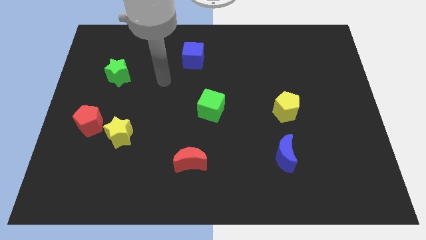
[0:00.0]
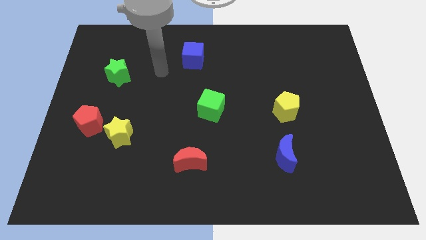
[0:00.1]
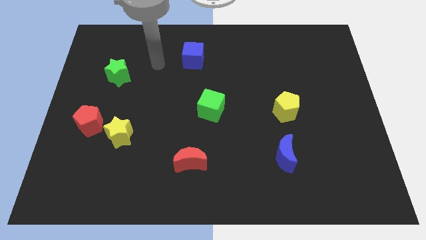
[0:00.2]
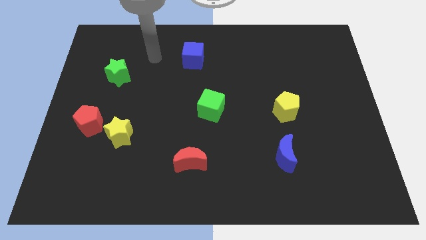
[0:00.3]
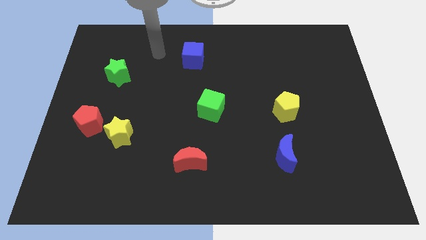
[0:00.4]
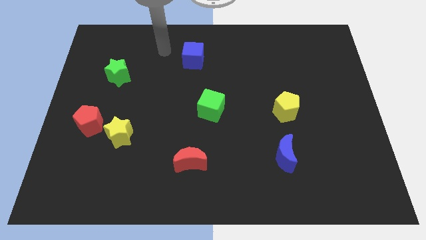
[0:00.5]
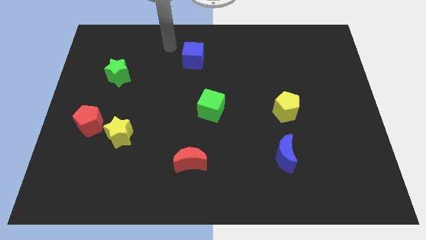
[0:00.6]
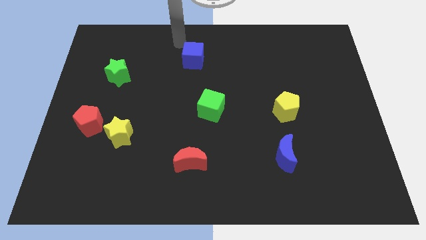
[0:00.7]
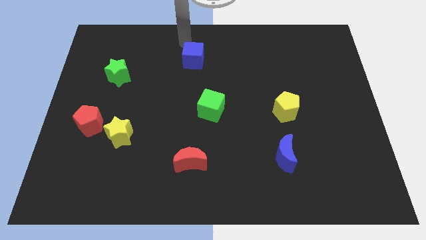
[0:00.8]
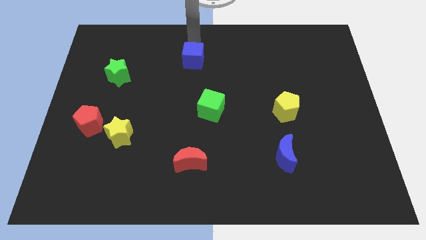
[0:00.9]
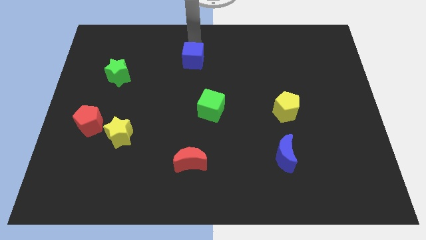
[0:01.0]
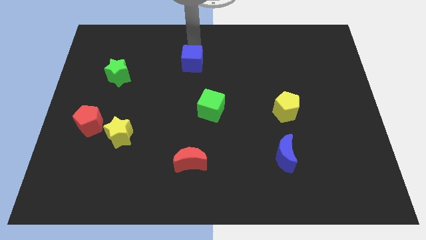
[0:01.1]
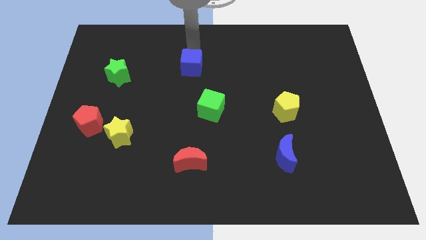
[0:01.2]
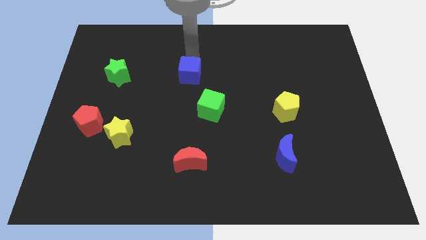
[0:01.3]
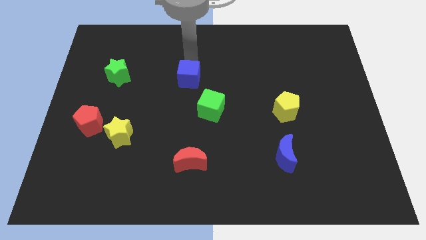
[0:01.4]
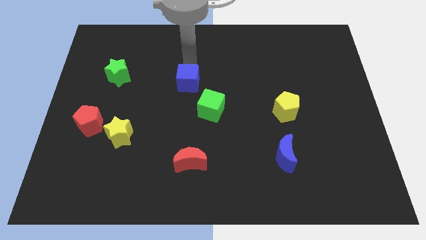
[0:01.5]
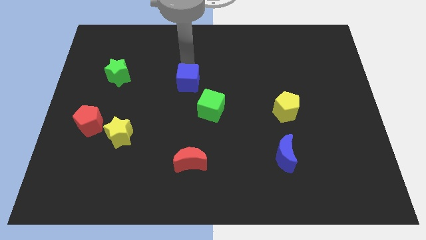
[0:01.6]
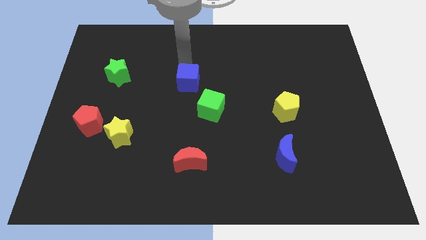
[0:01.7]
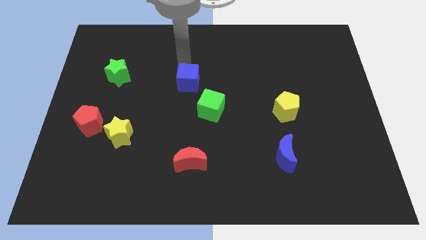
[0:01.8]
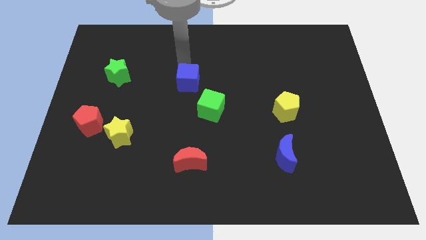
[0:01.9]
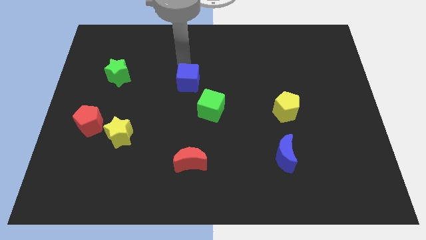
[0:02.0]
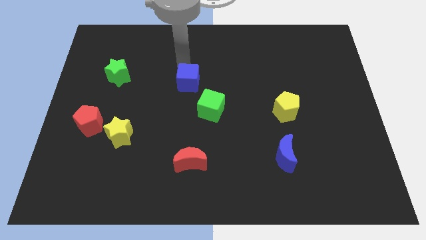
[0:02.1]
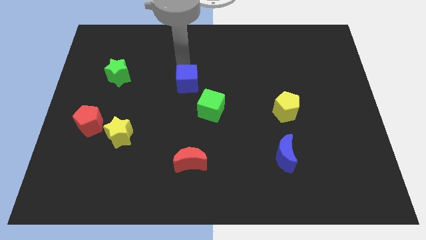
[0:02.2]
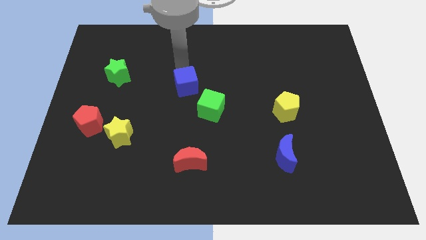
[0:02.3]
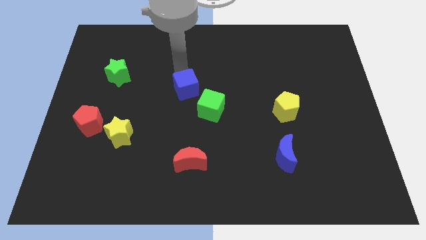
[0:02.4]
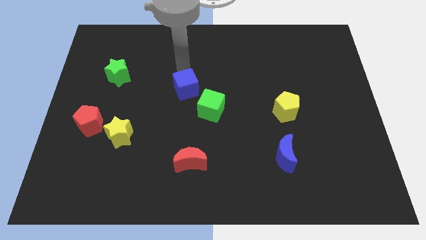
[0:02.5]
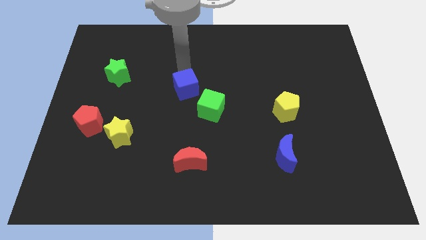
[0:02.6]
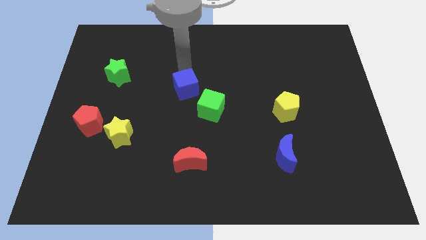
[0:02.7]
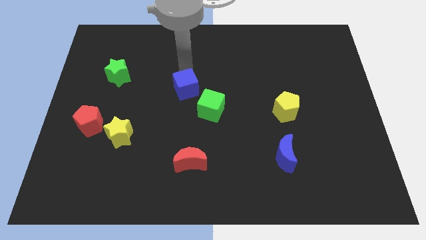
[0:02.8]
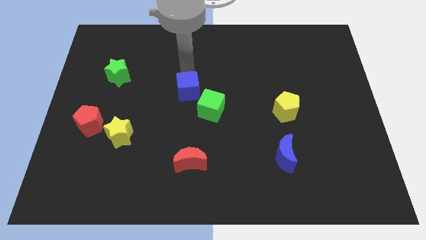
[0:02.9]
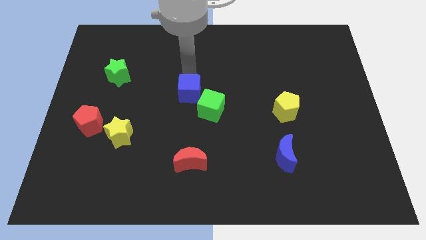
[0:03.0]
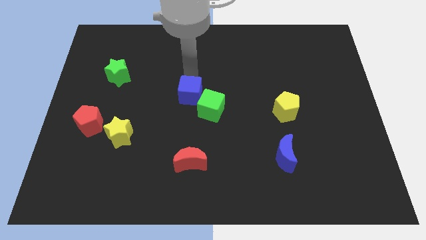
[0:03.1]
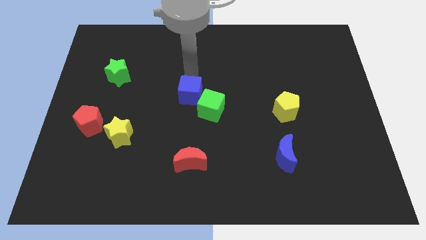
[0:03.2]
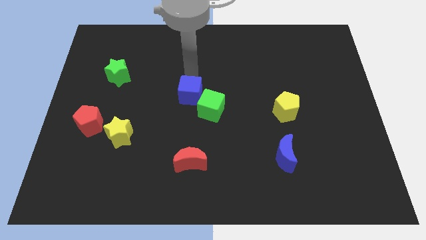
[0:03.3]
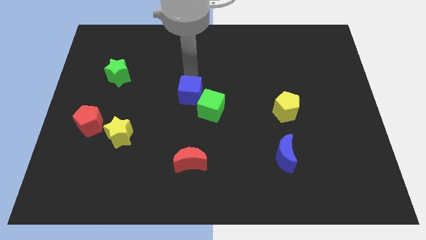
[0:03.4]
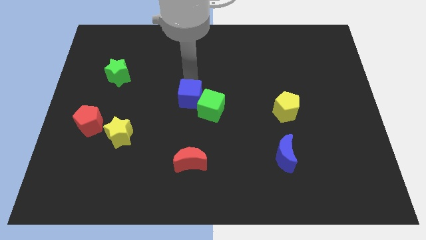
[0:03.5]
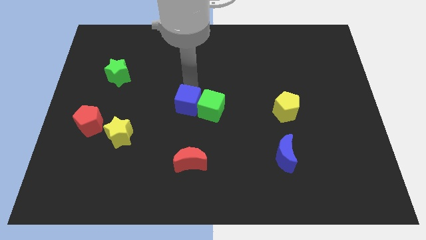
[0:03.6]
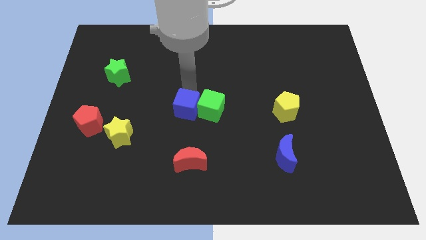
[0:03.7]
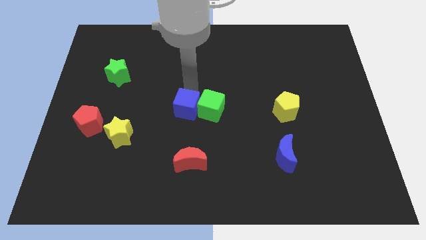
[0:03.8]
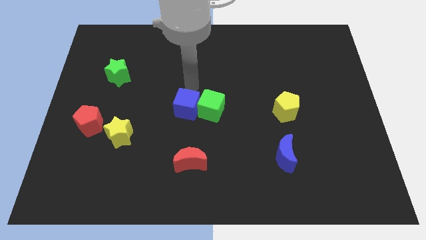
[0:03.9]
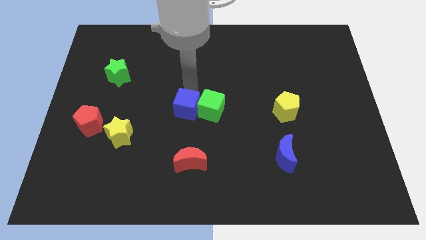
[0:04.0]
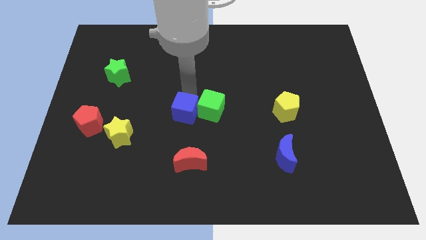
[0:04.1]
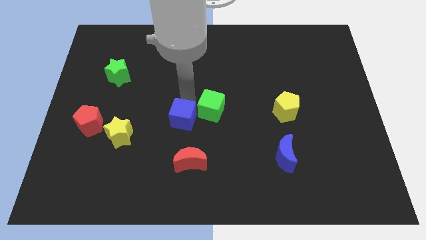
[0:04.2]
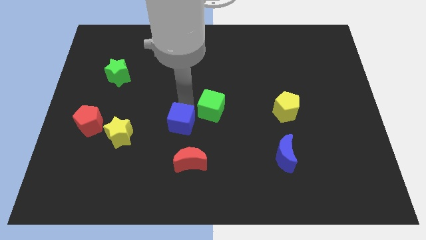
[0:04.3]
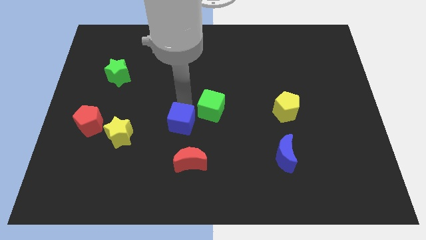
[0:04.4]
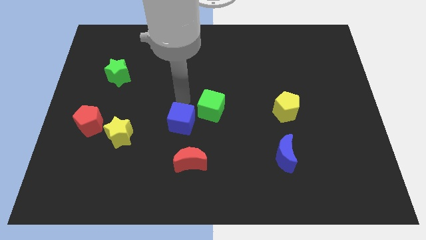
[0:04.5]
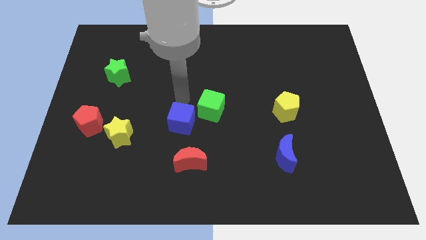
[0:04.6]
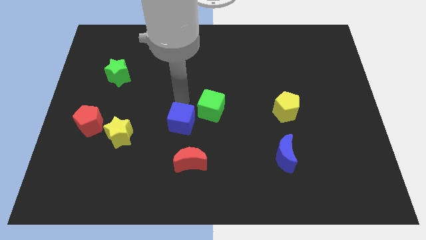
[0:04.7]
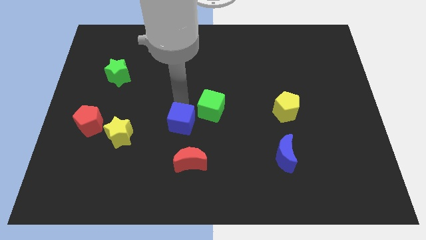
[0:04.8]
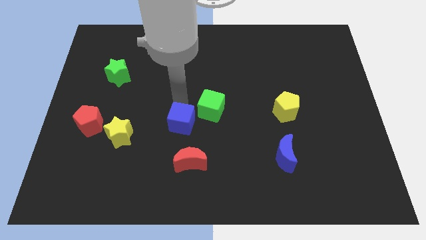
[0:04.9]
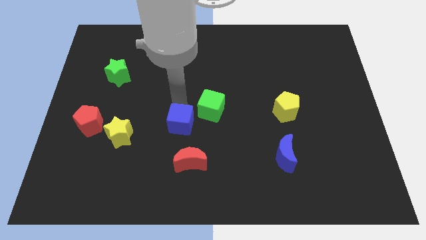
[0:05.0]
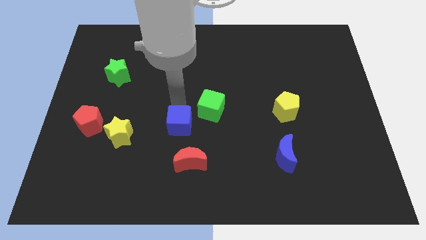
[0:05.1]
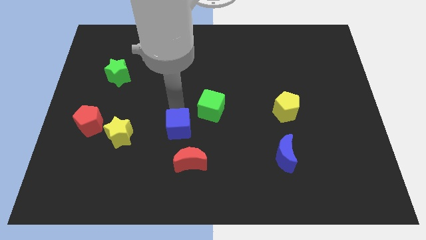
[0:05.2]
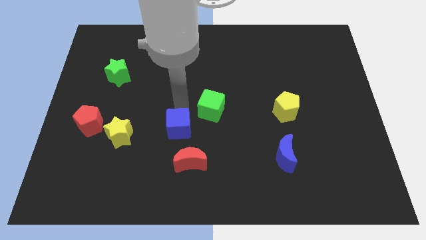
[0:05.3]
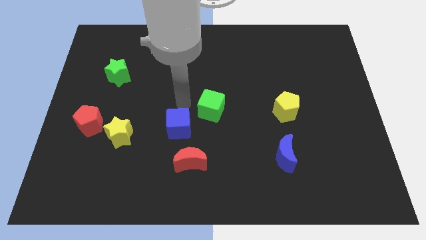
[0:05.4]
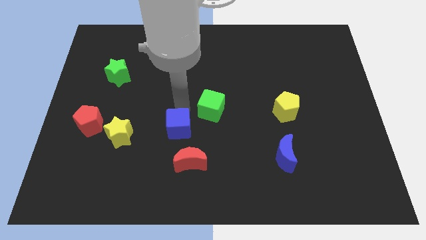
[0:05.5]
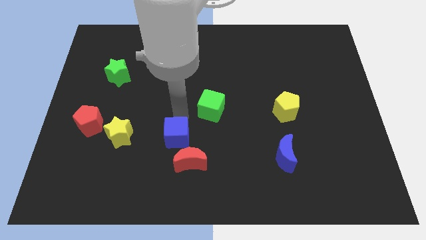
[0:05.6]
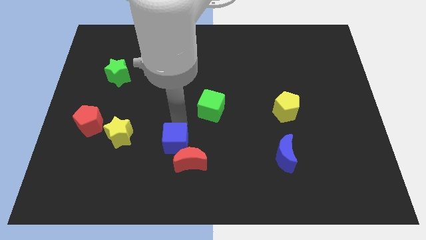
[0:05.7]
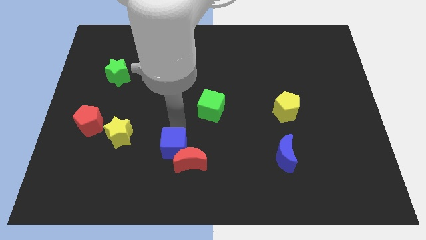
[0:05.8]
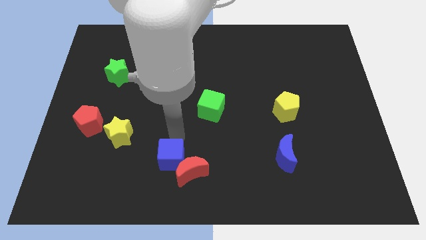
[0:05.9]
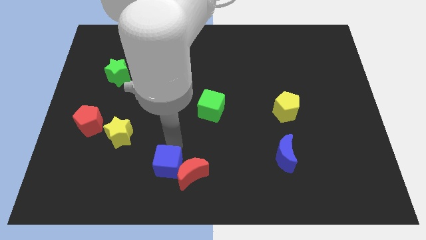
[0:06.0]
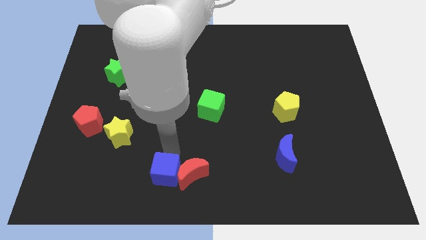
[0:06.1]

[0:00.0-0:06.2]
move the blue cube to the bottom left side of the red moon

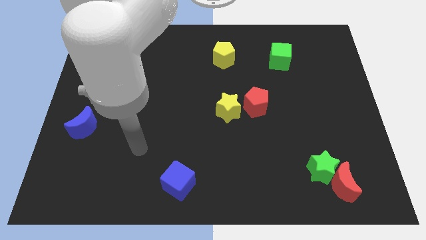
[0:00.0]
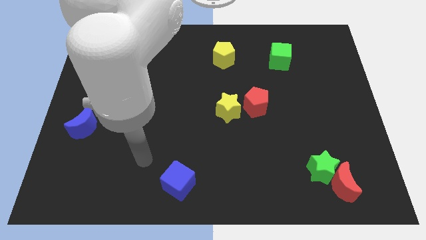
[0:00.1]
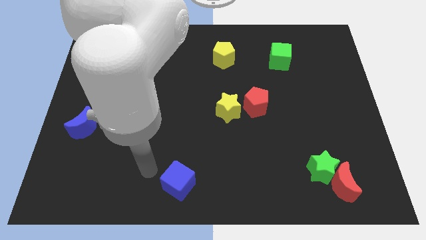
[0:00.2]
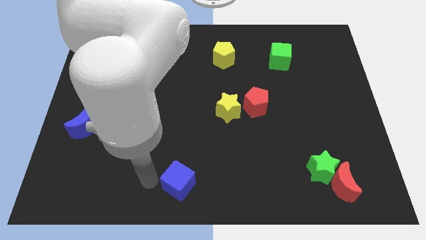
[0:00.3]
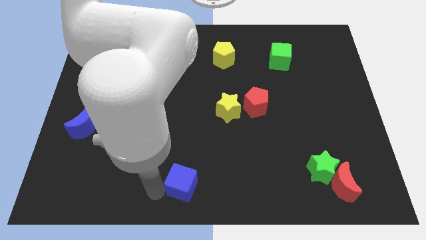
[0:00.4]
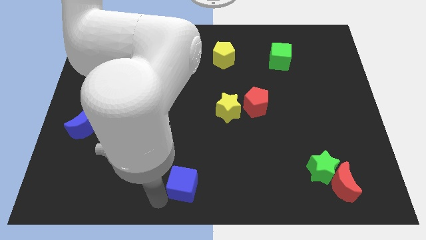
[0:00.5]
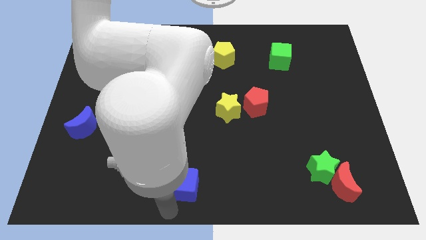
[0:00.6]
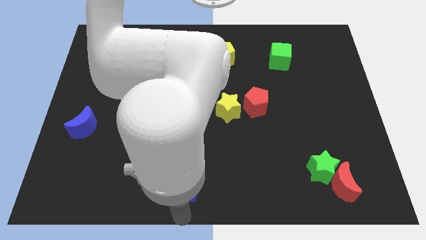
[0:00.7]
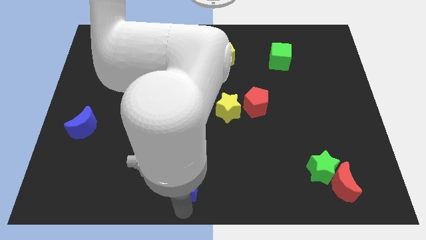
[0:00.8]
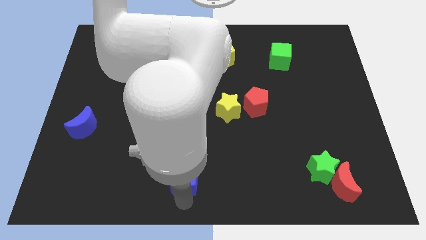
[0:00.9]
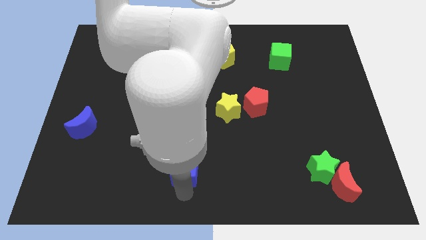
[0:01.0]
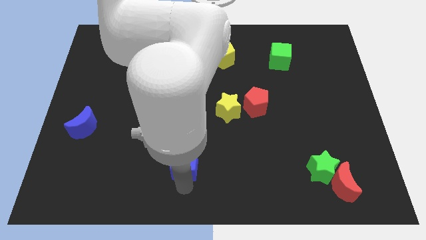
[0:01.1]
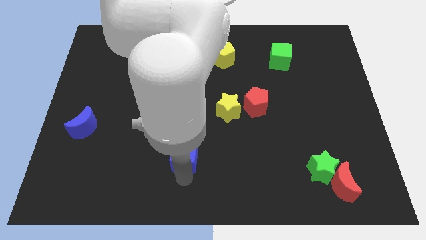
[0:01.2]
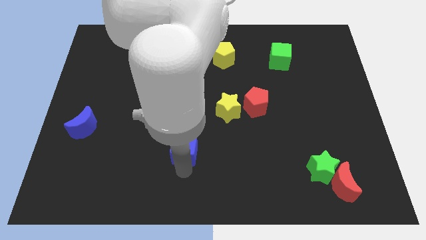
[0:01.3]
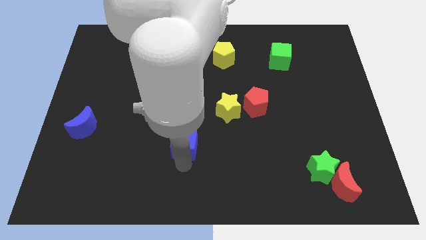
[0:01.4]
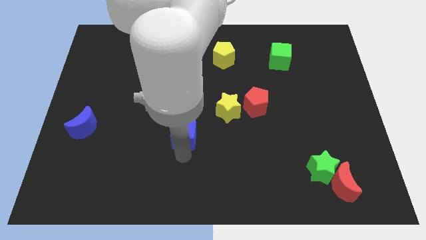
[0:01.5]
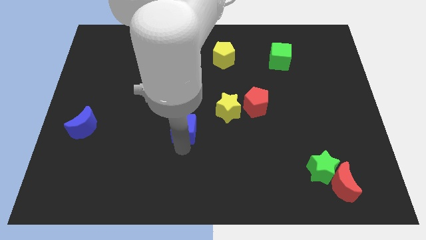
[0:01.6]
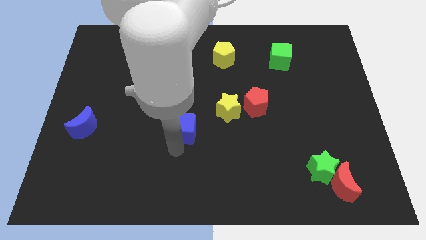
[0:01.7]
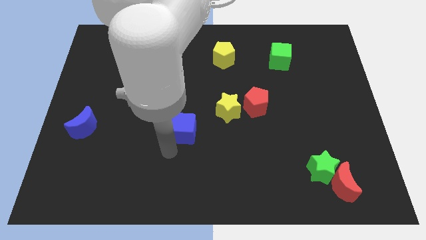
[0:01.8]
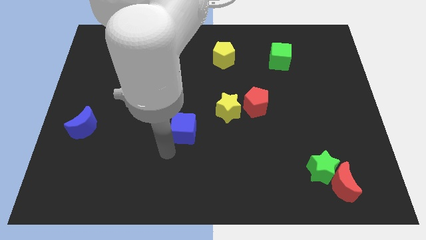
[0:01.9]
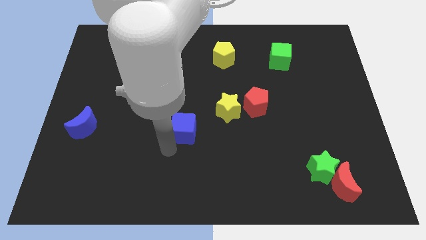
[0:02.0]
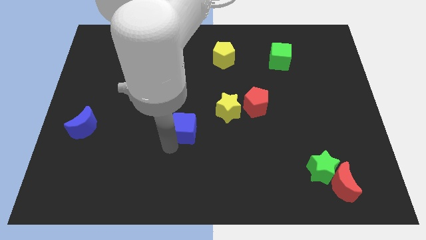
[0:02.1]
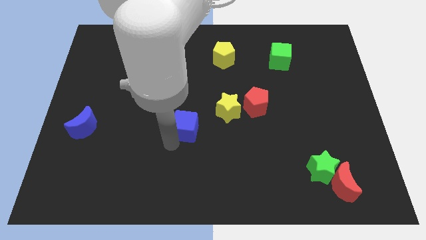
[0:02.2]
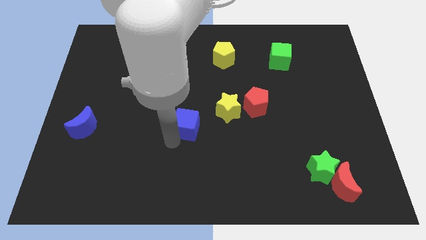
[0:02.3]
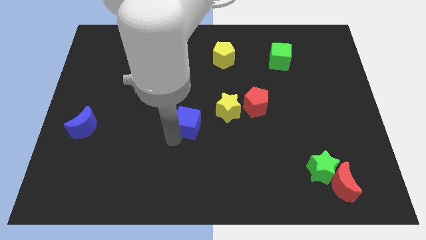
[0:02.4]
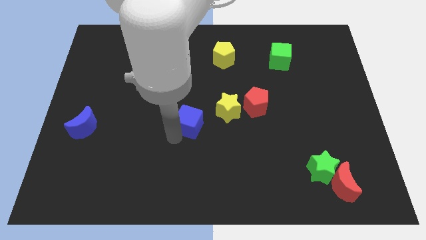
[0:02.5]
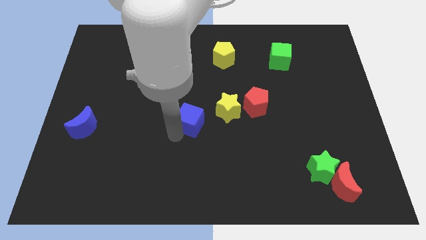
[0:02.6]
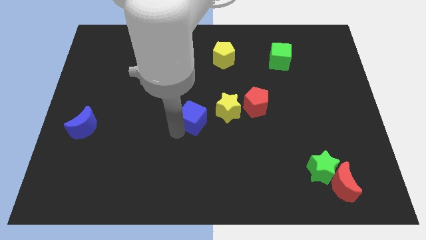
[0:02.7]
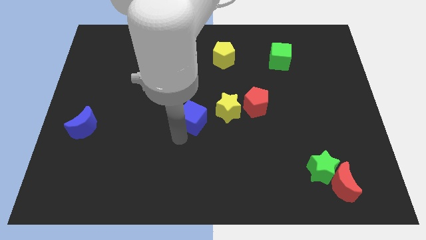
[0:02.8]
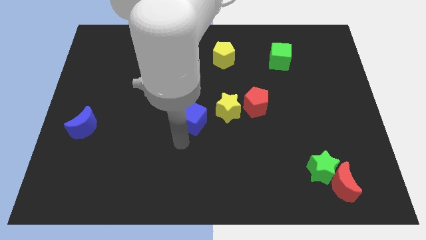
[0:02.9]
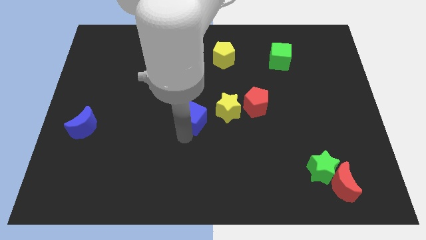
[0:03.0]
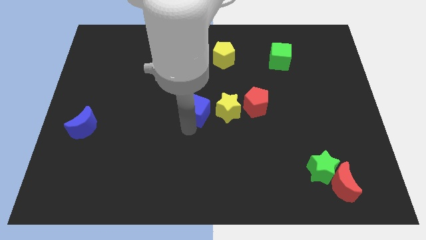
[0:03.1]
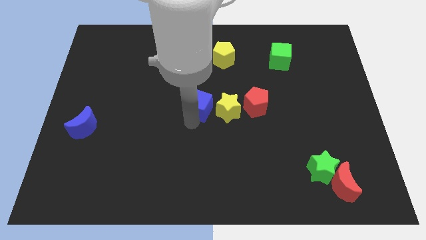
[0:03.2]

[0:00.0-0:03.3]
put the blue cube to the top left side of the yellow star
